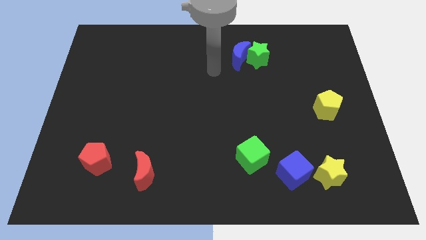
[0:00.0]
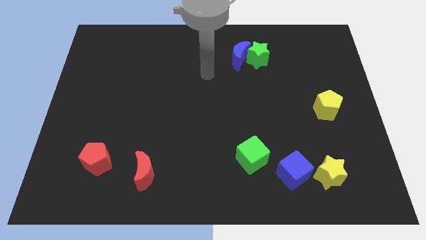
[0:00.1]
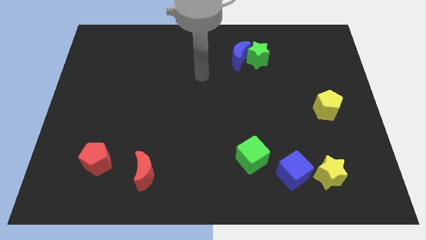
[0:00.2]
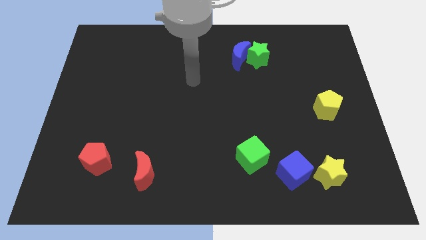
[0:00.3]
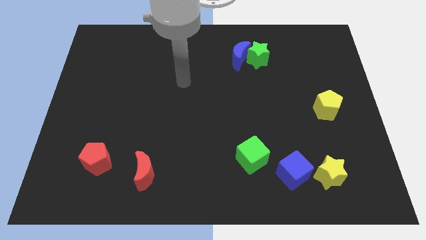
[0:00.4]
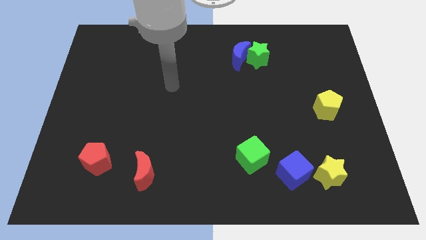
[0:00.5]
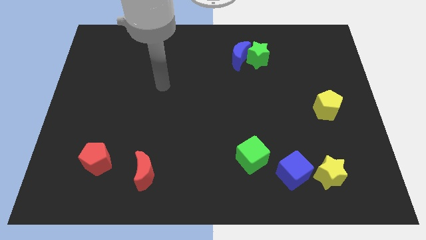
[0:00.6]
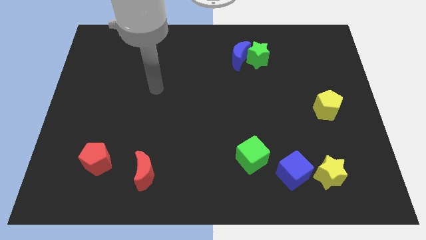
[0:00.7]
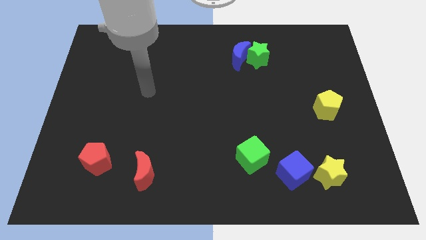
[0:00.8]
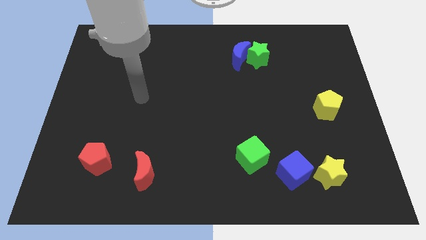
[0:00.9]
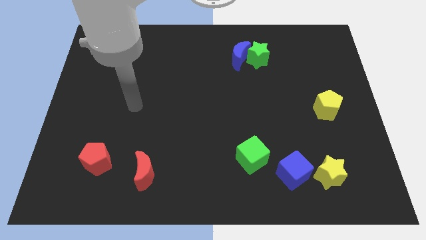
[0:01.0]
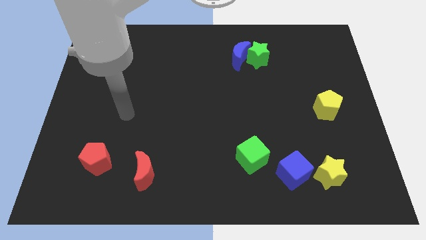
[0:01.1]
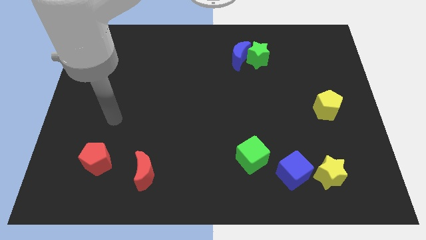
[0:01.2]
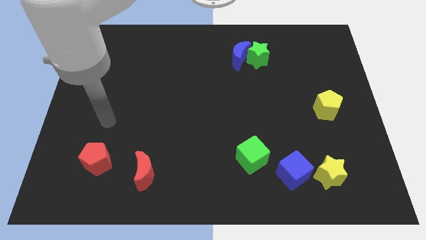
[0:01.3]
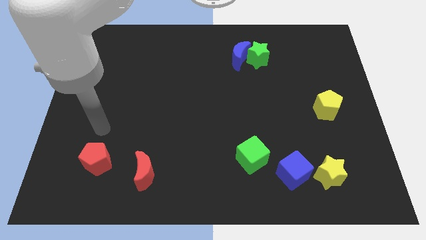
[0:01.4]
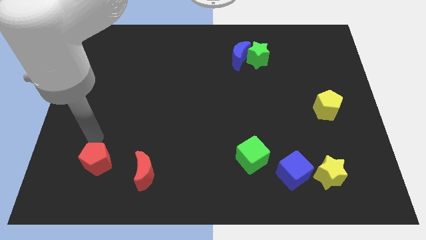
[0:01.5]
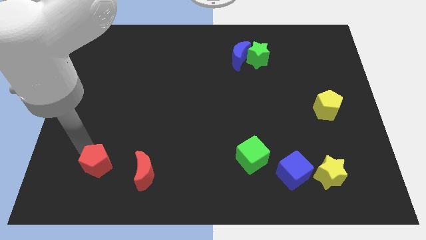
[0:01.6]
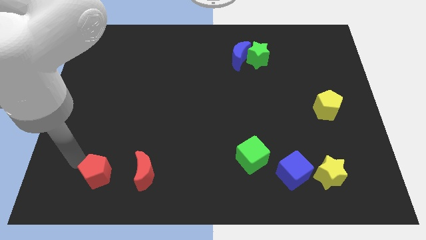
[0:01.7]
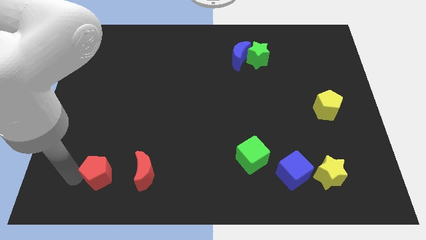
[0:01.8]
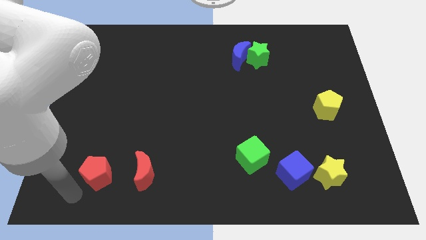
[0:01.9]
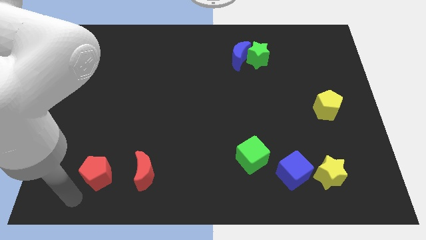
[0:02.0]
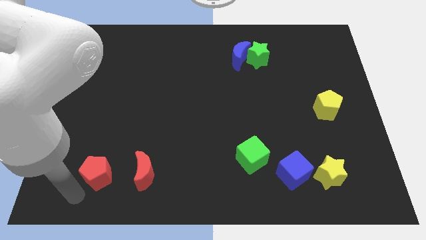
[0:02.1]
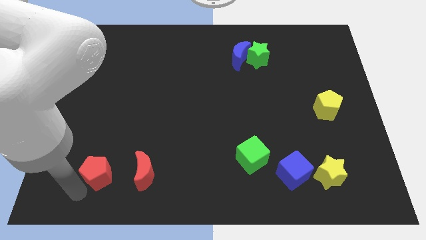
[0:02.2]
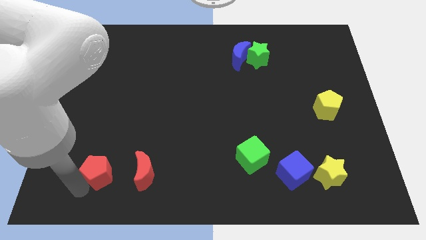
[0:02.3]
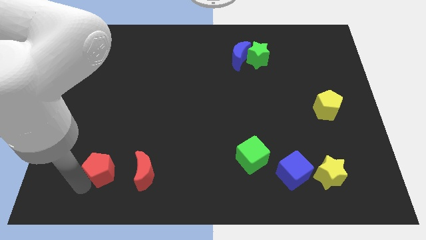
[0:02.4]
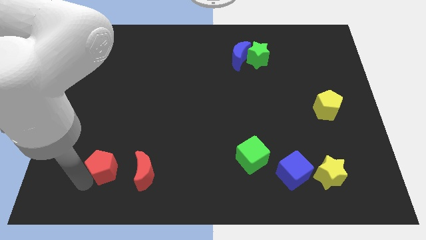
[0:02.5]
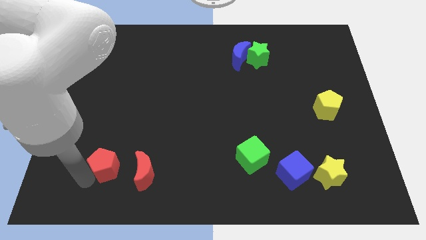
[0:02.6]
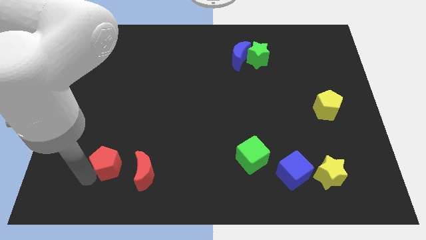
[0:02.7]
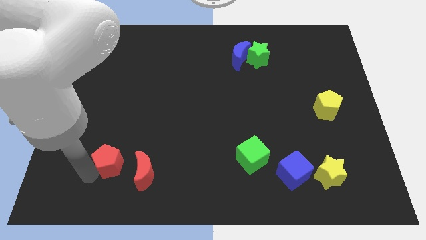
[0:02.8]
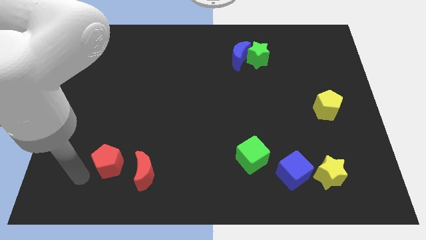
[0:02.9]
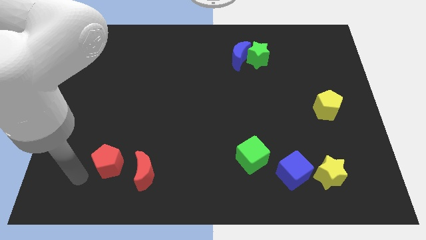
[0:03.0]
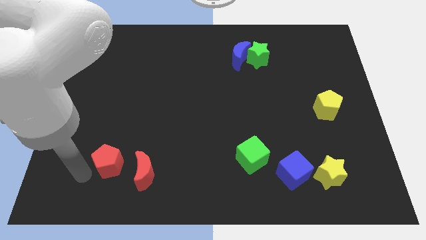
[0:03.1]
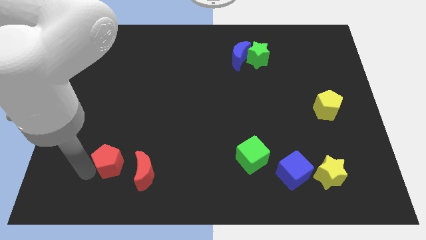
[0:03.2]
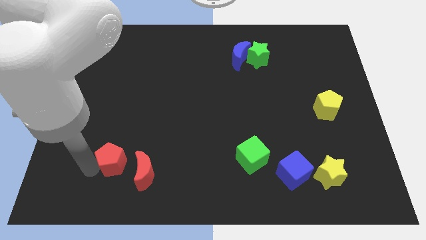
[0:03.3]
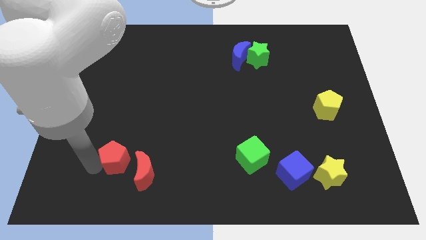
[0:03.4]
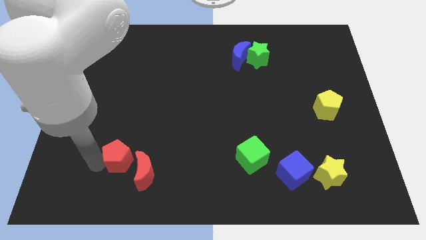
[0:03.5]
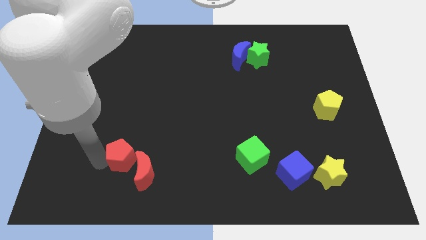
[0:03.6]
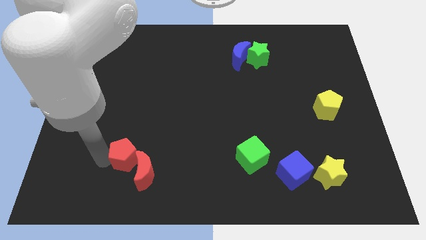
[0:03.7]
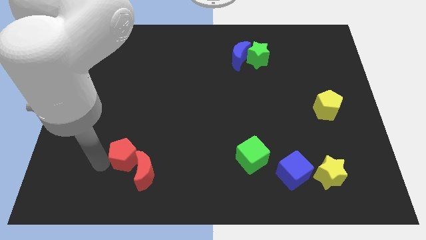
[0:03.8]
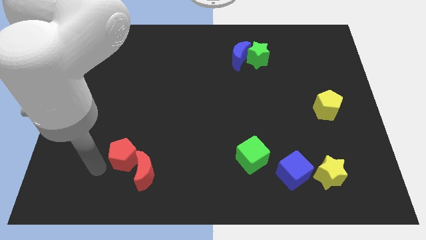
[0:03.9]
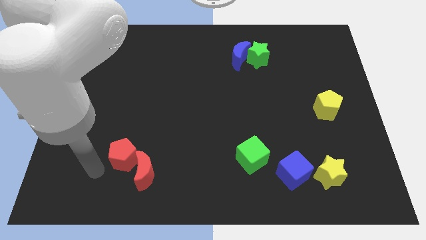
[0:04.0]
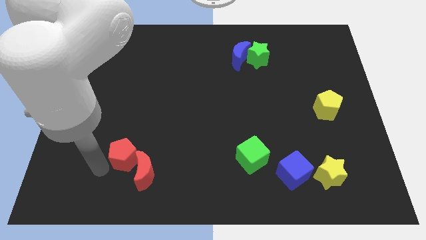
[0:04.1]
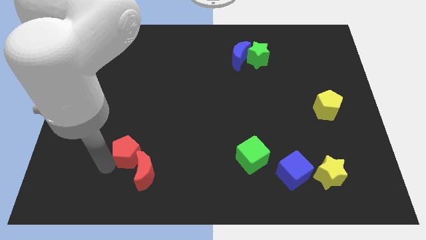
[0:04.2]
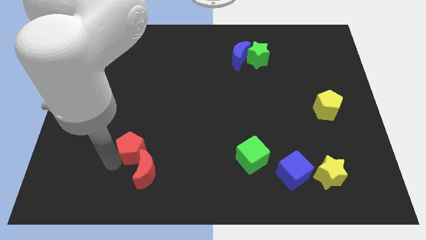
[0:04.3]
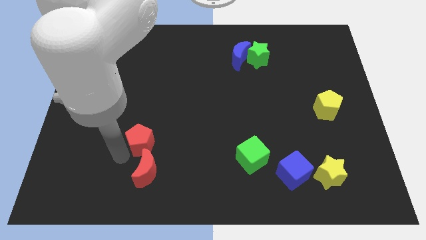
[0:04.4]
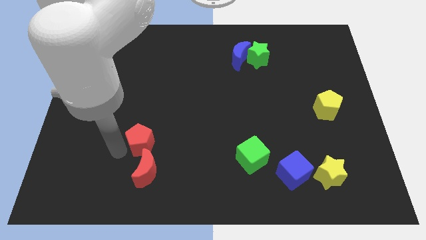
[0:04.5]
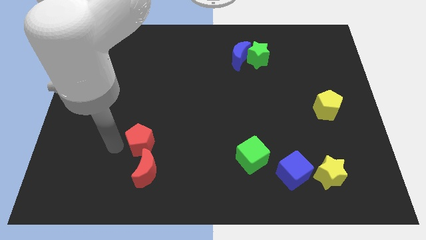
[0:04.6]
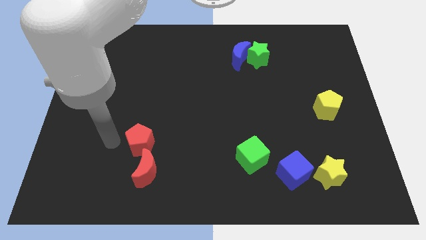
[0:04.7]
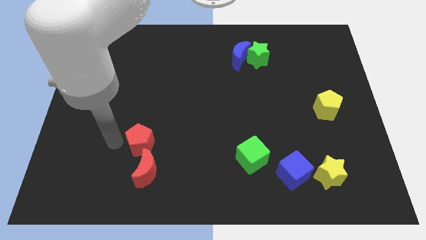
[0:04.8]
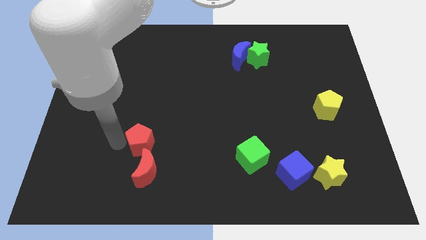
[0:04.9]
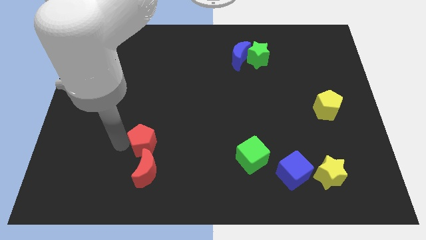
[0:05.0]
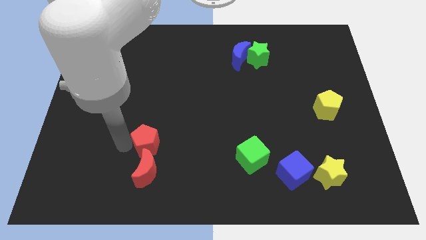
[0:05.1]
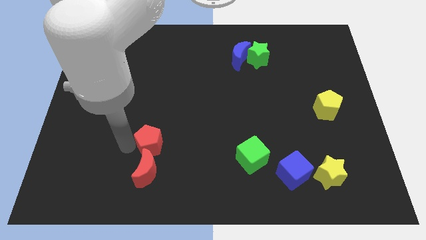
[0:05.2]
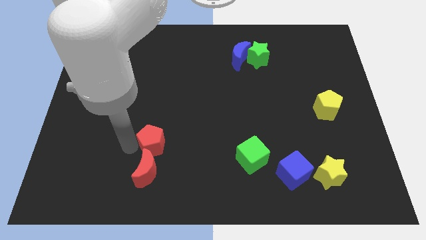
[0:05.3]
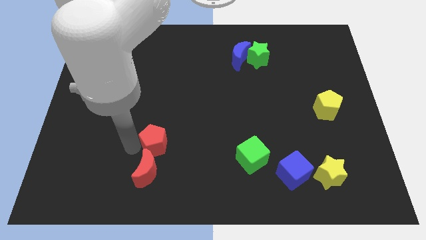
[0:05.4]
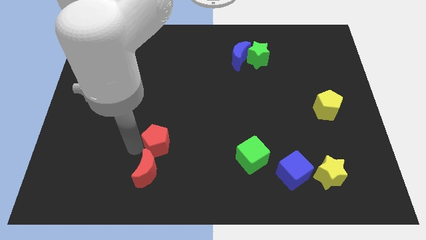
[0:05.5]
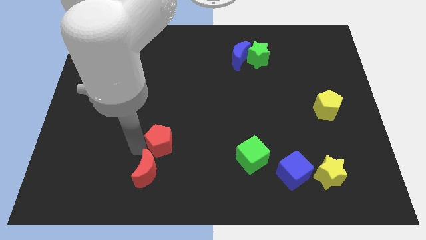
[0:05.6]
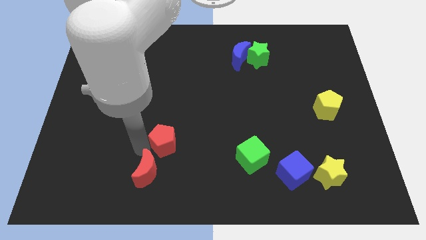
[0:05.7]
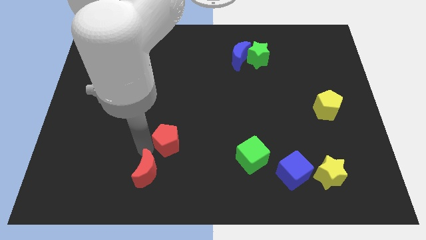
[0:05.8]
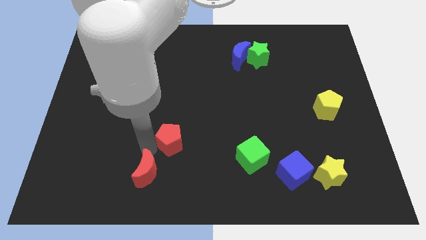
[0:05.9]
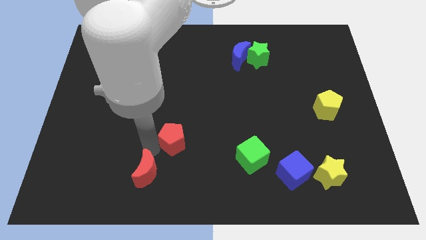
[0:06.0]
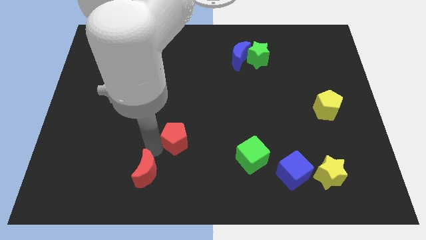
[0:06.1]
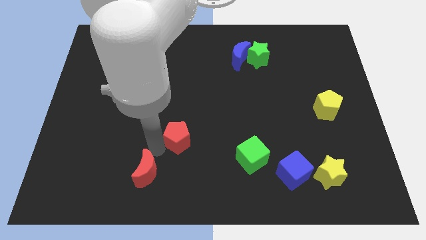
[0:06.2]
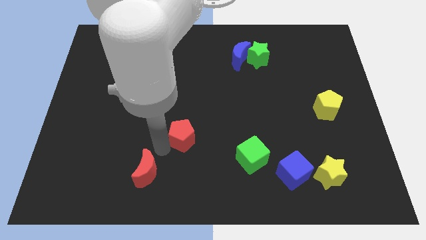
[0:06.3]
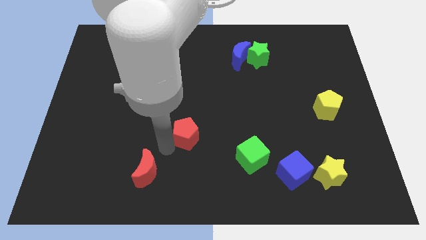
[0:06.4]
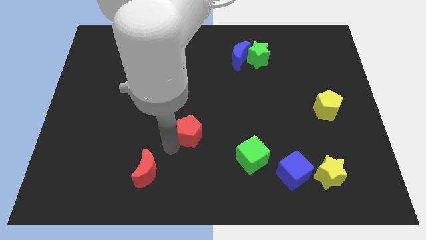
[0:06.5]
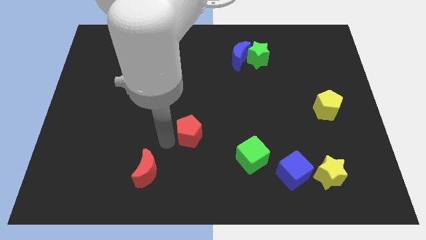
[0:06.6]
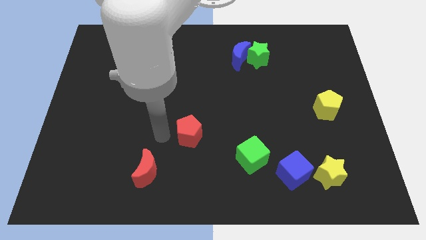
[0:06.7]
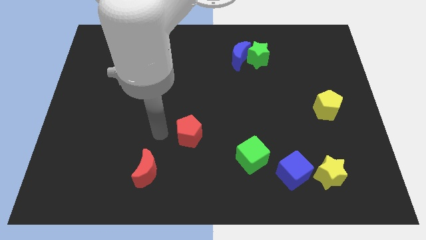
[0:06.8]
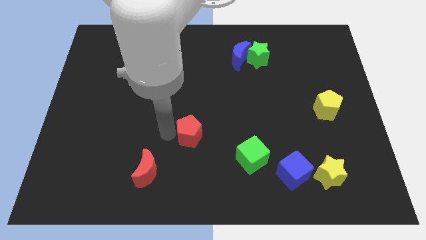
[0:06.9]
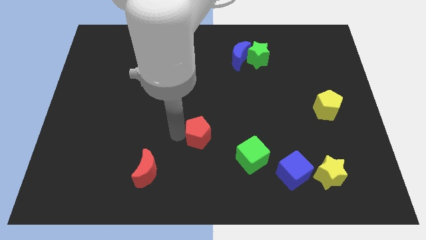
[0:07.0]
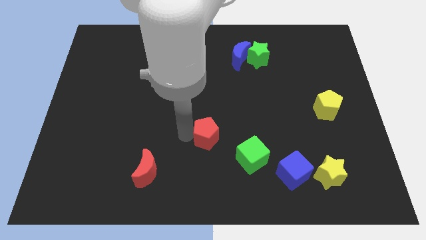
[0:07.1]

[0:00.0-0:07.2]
move the red pentagon diagonally up and to the left of the green cube

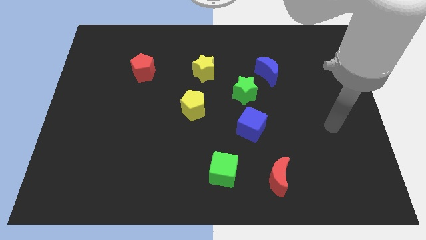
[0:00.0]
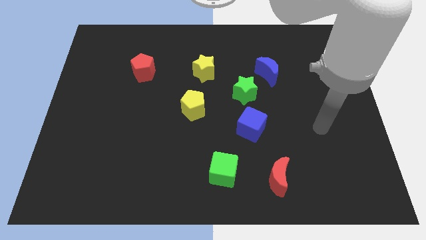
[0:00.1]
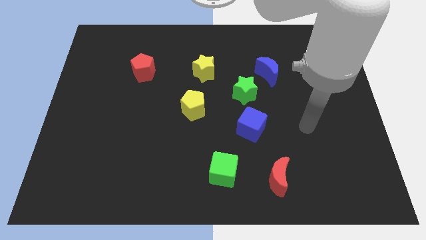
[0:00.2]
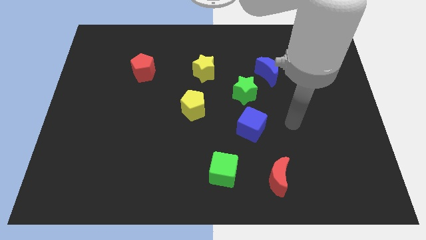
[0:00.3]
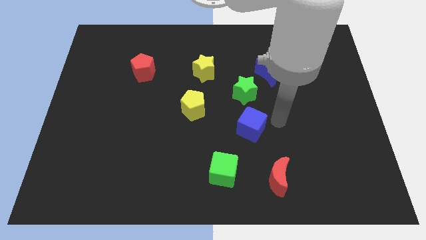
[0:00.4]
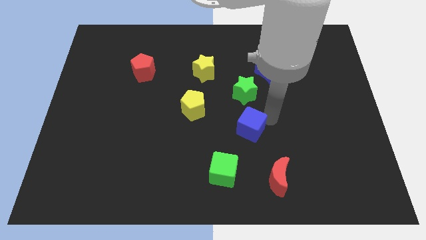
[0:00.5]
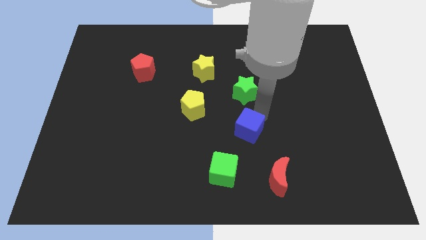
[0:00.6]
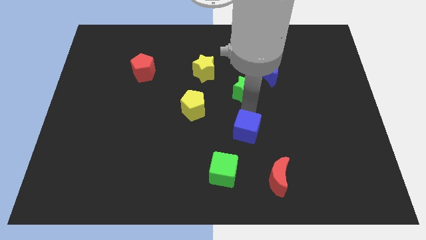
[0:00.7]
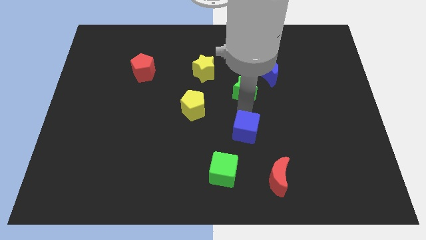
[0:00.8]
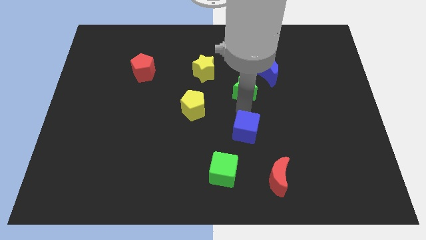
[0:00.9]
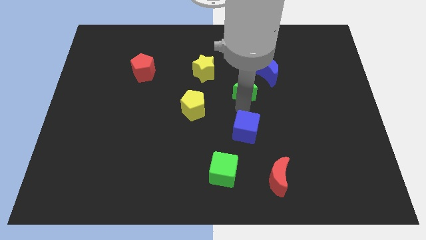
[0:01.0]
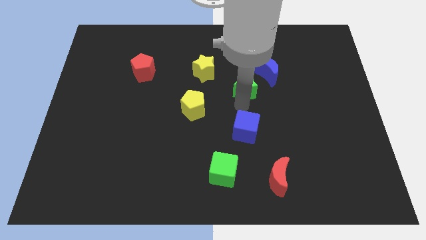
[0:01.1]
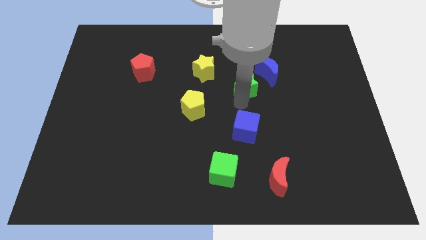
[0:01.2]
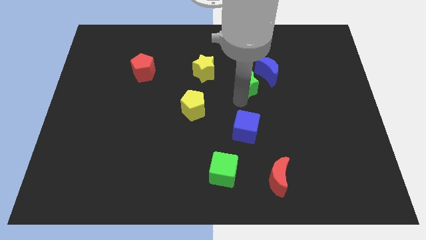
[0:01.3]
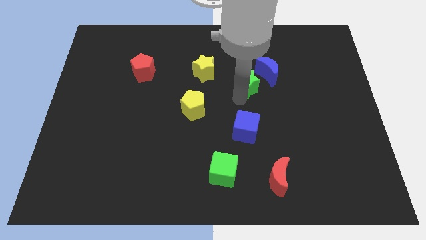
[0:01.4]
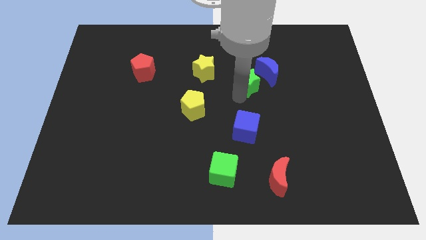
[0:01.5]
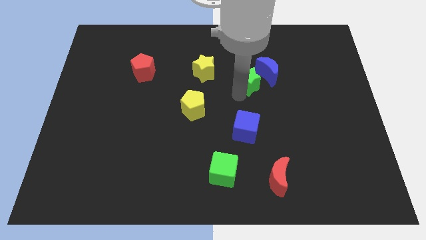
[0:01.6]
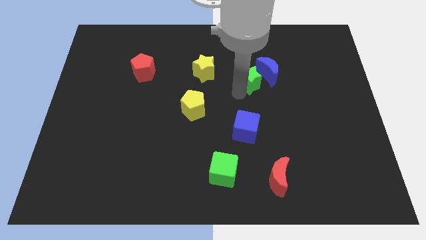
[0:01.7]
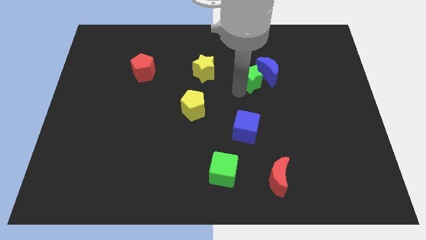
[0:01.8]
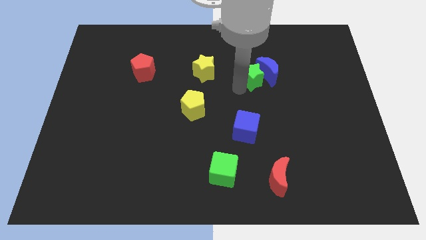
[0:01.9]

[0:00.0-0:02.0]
put the green star to the top left side of the blue moon
